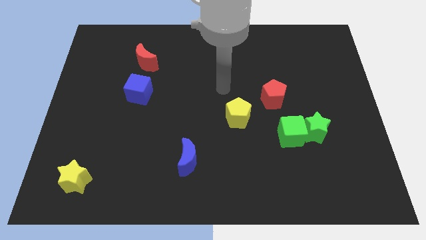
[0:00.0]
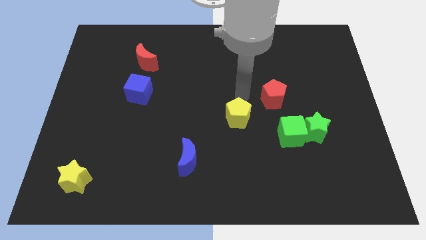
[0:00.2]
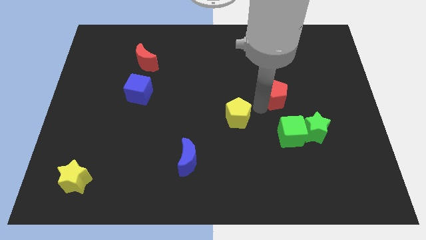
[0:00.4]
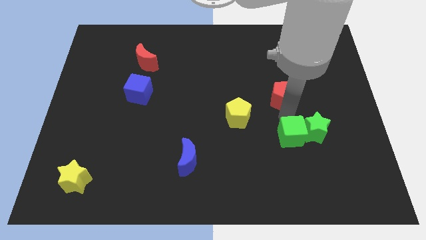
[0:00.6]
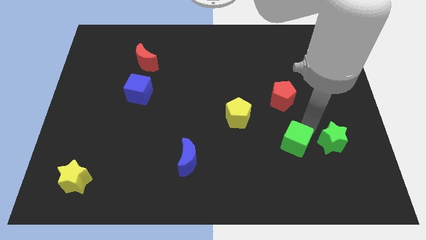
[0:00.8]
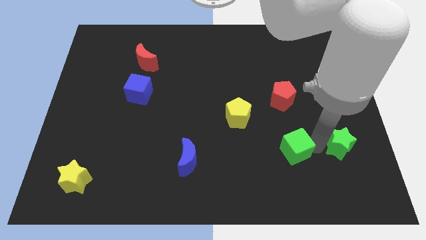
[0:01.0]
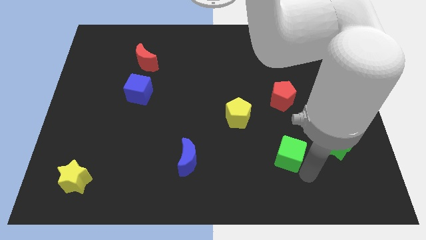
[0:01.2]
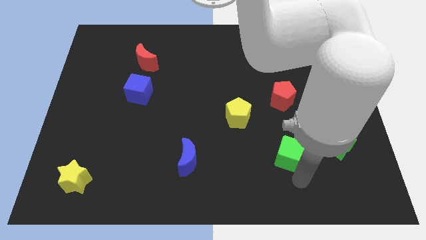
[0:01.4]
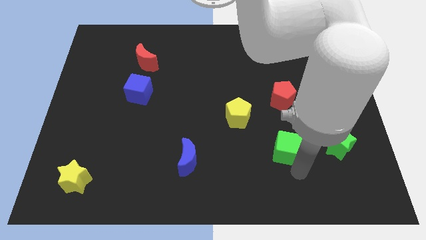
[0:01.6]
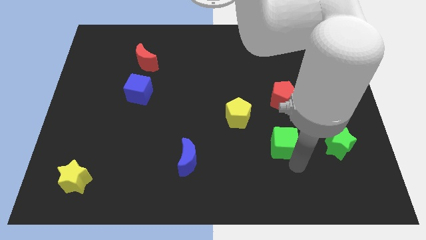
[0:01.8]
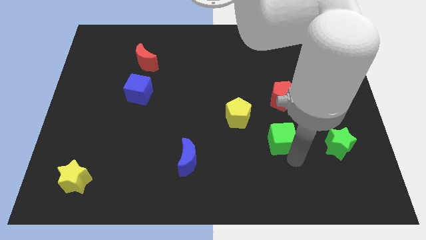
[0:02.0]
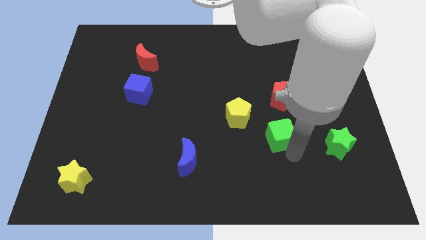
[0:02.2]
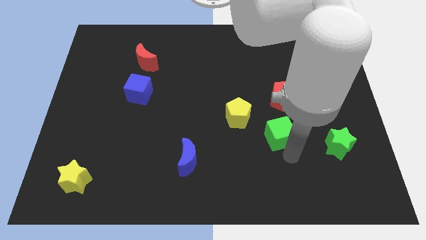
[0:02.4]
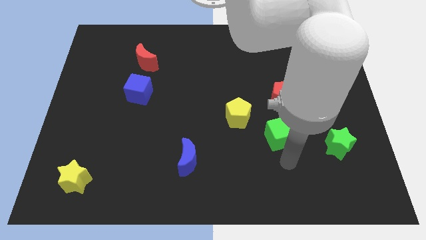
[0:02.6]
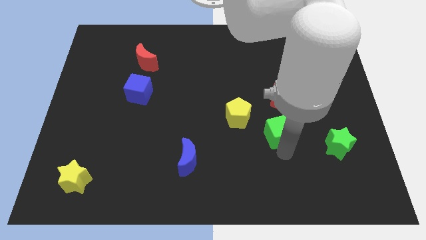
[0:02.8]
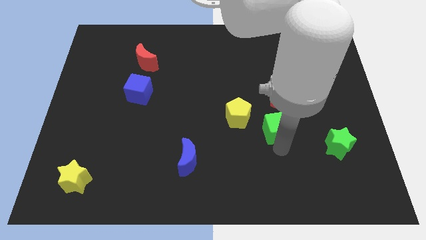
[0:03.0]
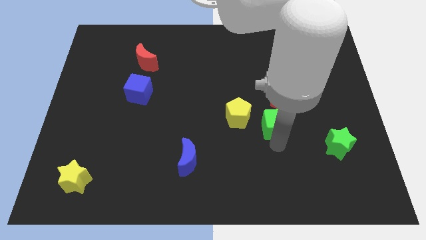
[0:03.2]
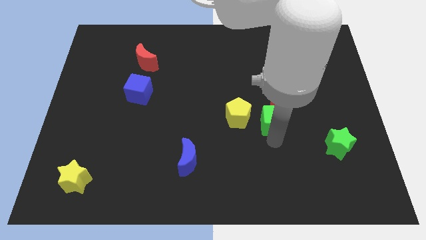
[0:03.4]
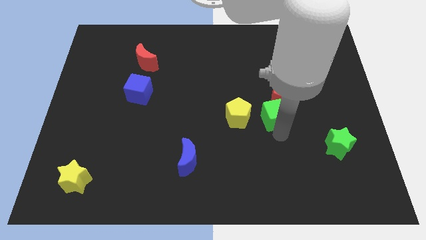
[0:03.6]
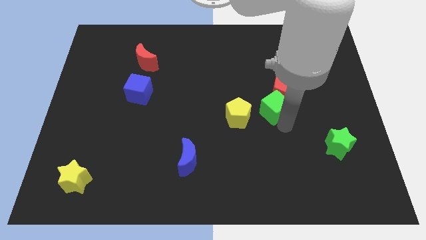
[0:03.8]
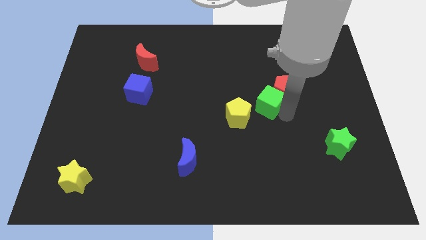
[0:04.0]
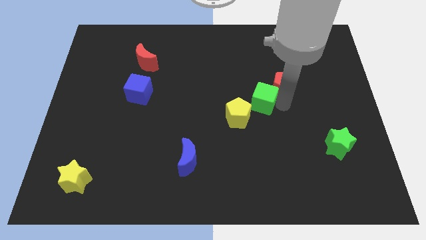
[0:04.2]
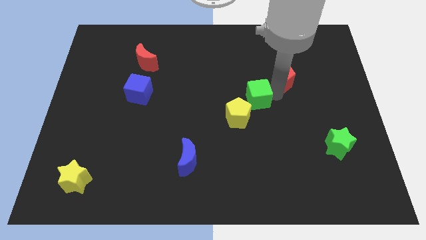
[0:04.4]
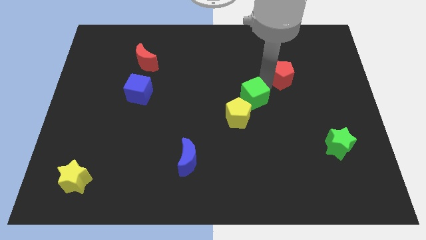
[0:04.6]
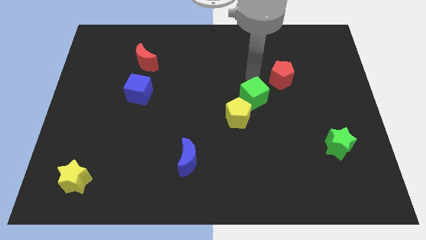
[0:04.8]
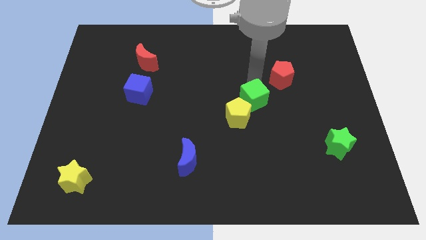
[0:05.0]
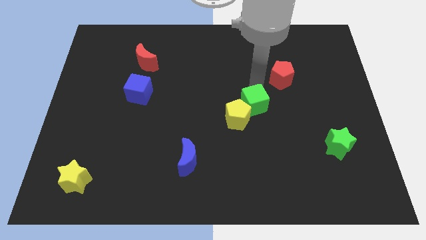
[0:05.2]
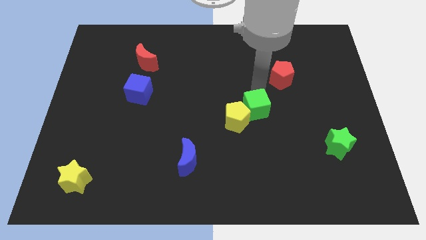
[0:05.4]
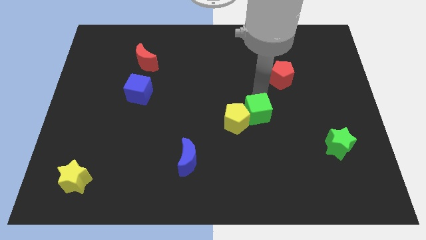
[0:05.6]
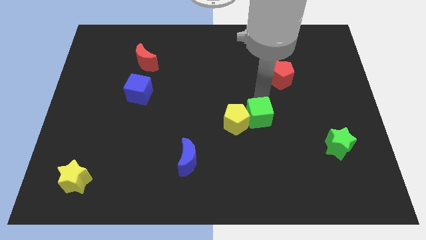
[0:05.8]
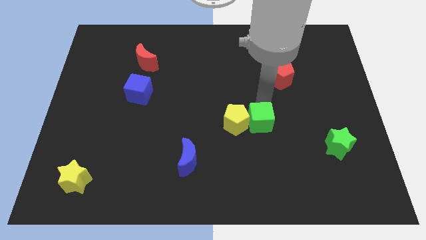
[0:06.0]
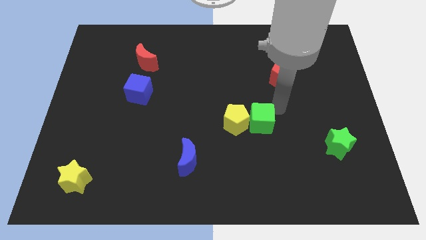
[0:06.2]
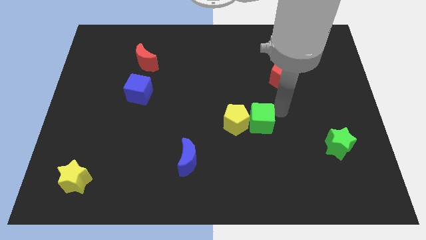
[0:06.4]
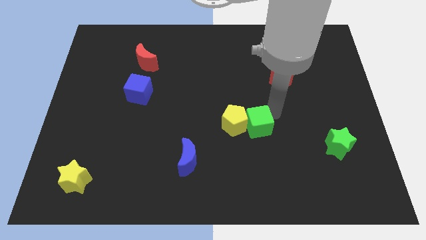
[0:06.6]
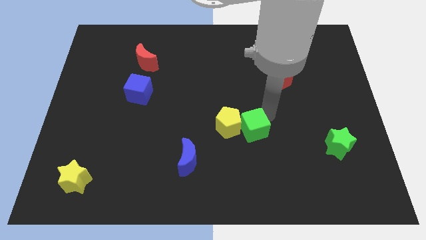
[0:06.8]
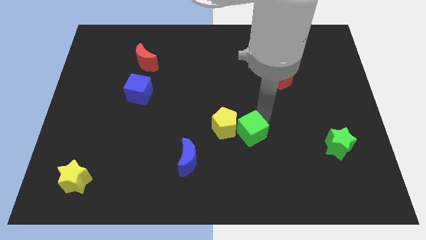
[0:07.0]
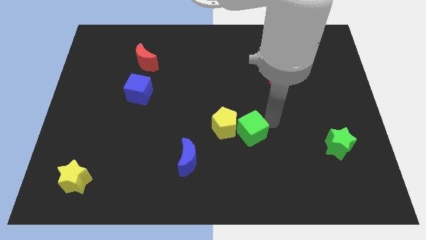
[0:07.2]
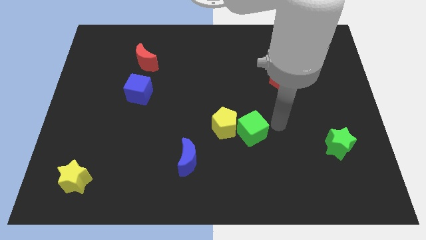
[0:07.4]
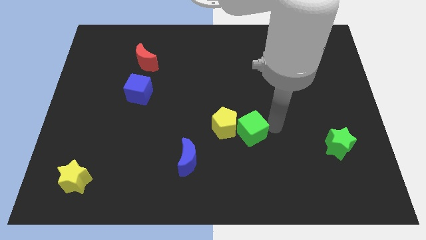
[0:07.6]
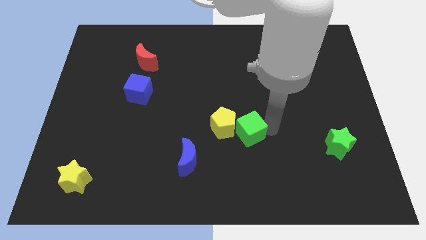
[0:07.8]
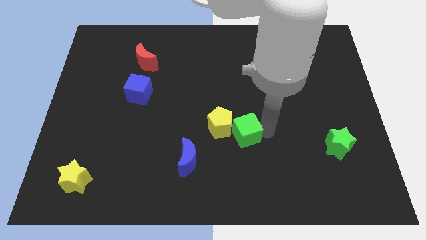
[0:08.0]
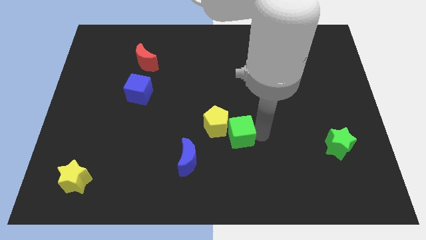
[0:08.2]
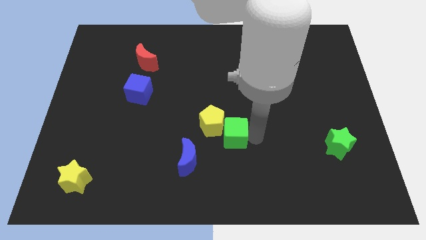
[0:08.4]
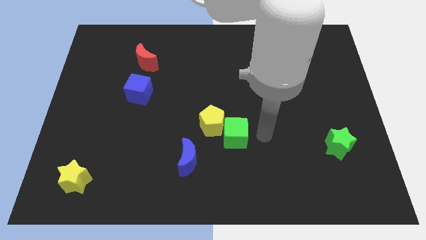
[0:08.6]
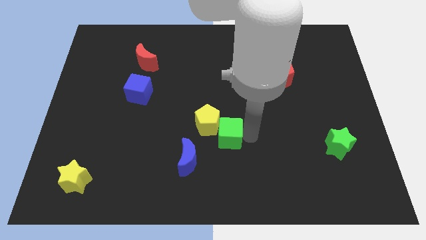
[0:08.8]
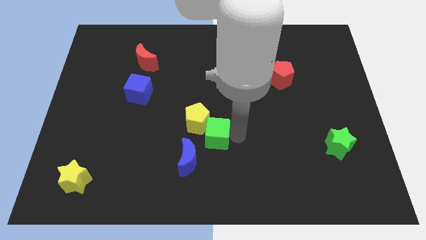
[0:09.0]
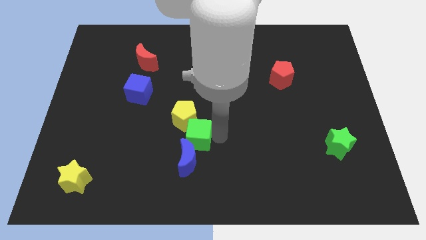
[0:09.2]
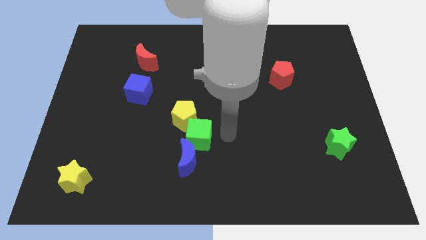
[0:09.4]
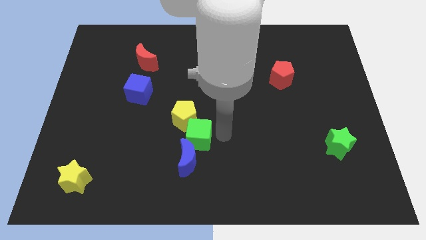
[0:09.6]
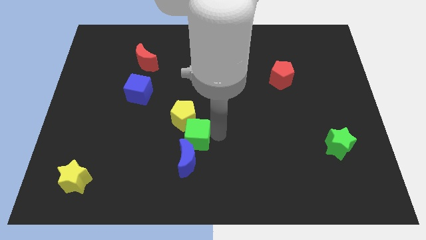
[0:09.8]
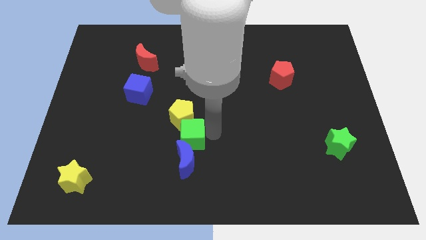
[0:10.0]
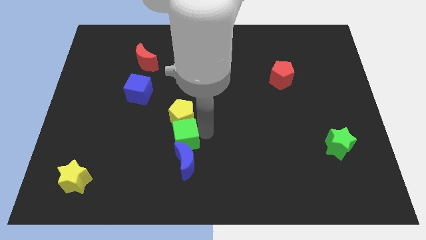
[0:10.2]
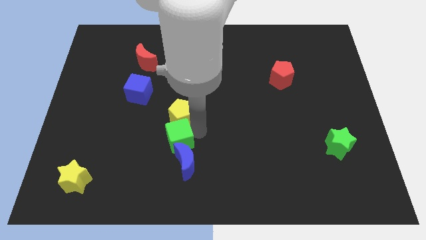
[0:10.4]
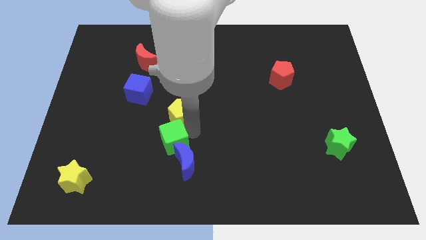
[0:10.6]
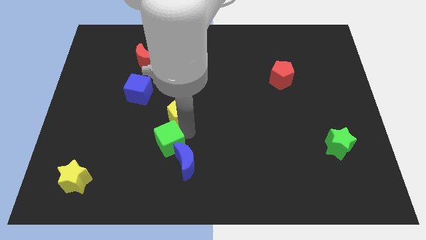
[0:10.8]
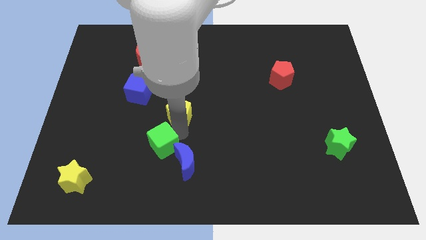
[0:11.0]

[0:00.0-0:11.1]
push the green cube to the left side of the blue moon

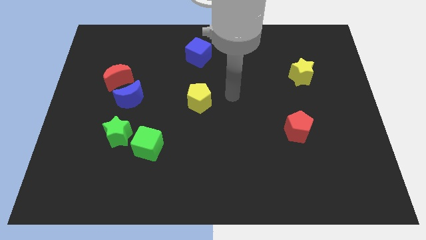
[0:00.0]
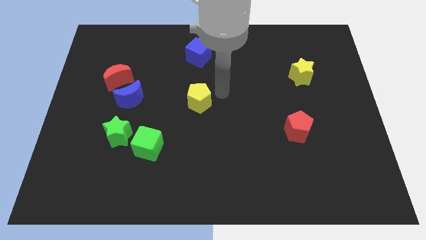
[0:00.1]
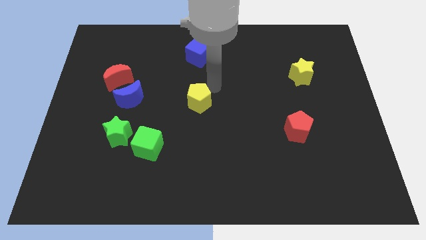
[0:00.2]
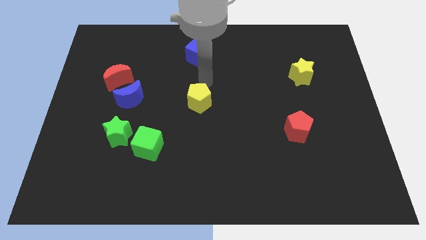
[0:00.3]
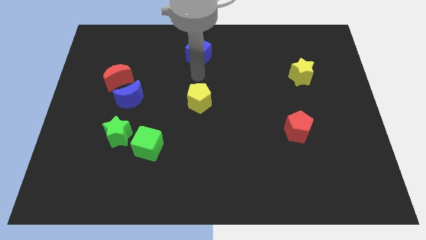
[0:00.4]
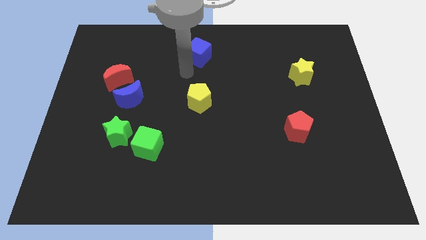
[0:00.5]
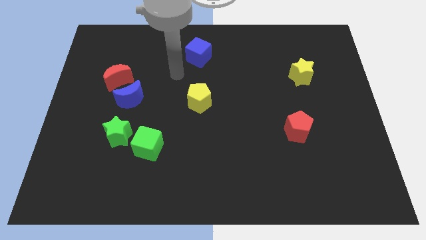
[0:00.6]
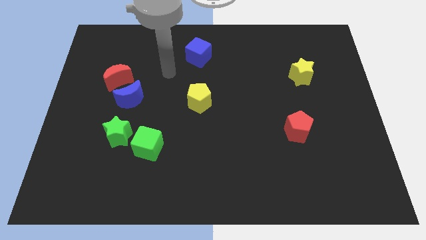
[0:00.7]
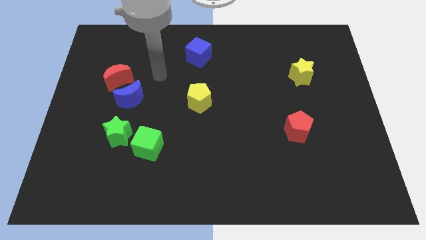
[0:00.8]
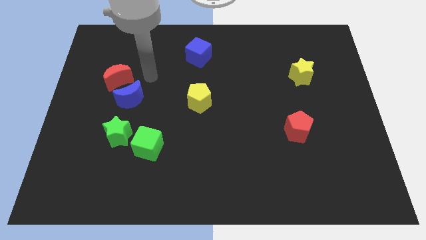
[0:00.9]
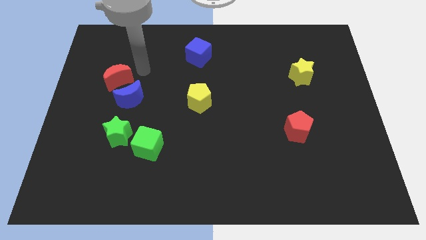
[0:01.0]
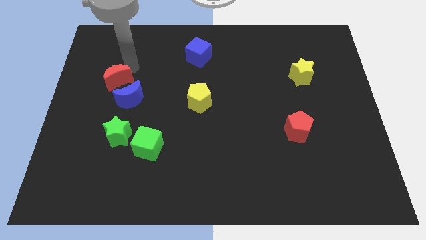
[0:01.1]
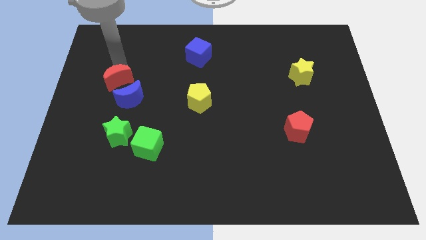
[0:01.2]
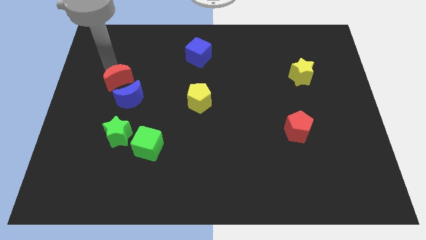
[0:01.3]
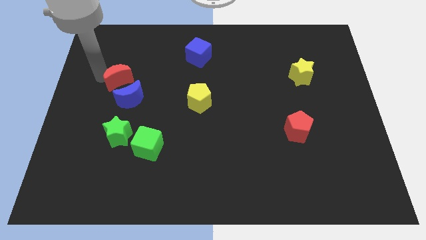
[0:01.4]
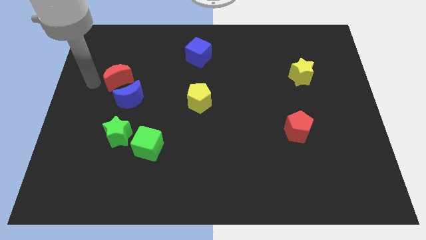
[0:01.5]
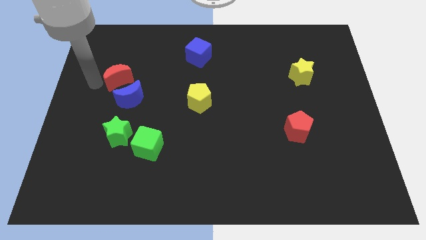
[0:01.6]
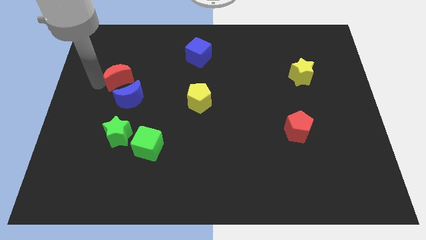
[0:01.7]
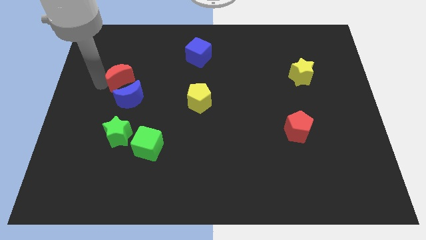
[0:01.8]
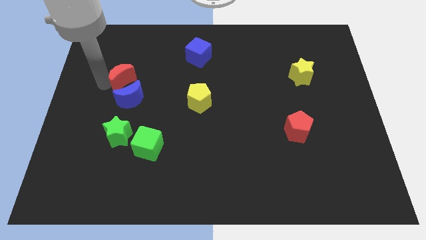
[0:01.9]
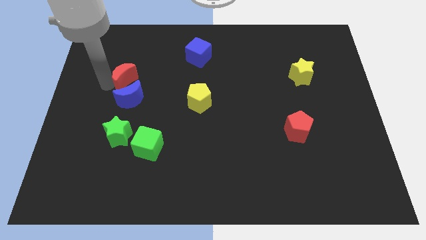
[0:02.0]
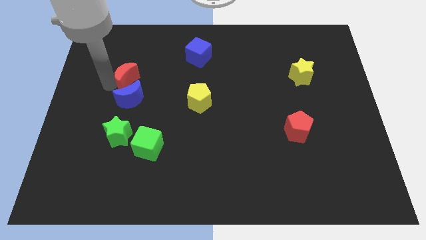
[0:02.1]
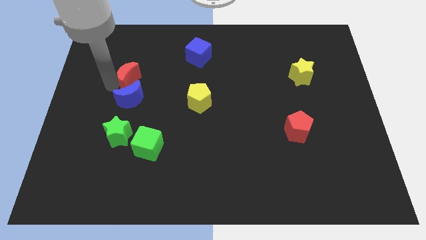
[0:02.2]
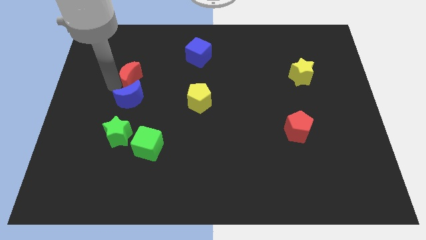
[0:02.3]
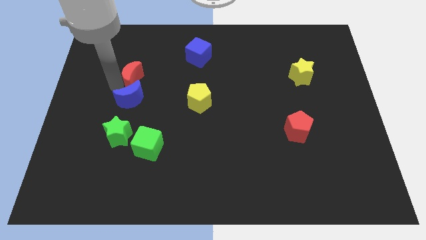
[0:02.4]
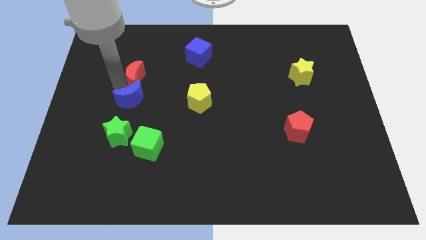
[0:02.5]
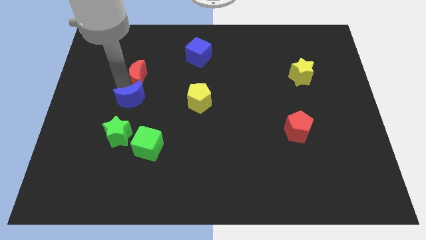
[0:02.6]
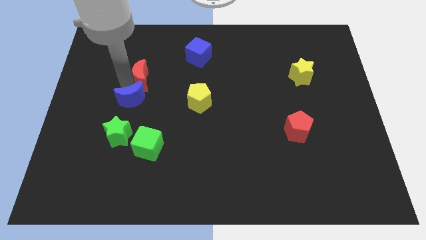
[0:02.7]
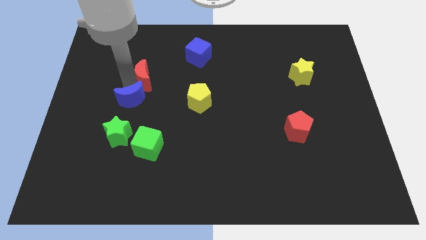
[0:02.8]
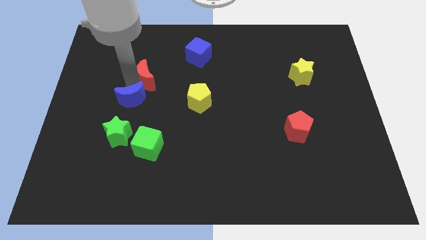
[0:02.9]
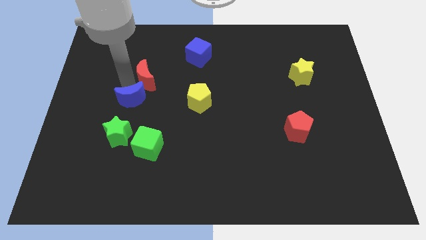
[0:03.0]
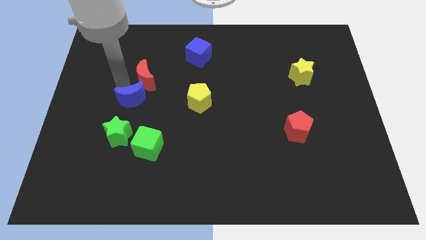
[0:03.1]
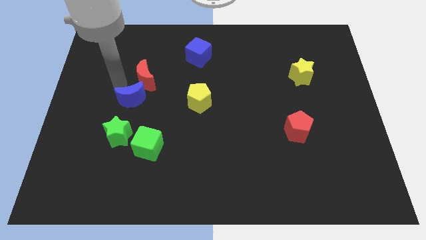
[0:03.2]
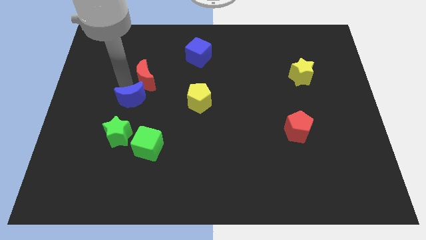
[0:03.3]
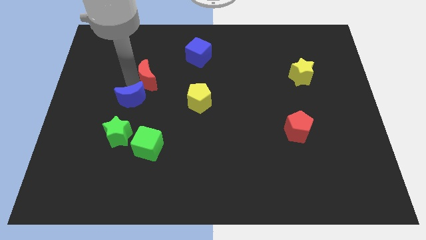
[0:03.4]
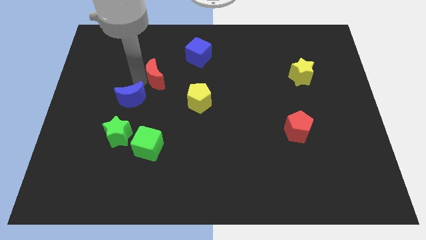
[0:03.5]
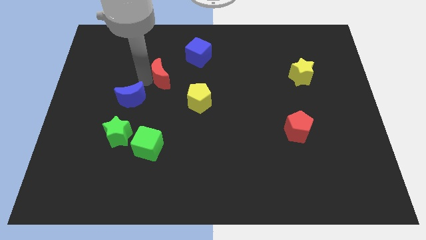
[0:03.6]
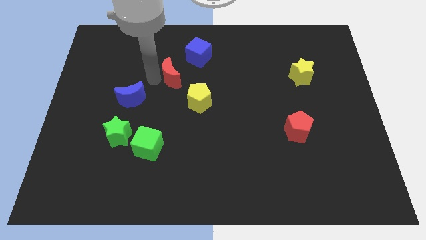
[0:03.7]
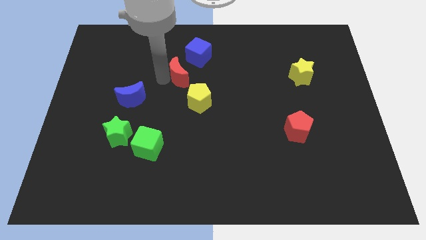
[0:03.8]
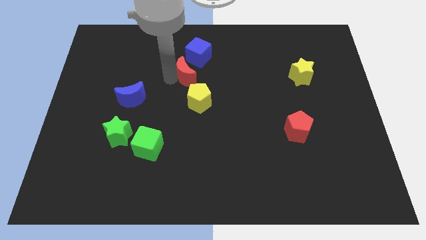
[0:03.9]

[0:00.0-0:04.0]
slide the red moon to the top of the yellow pentagon
